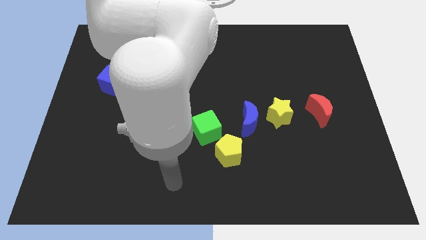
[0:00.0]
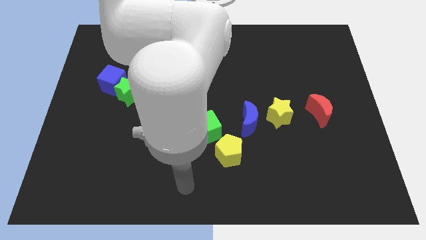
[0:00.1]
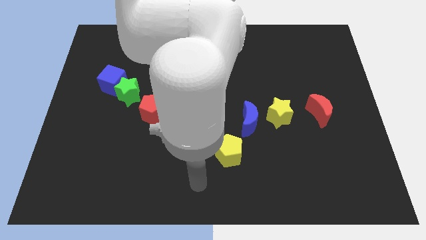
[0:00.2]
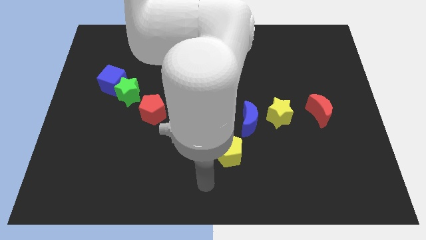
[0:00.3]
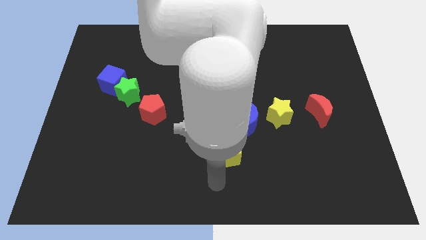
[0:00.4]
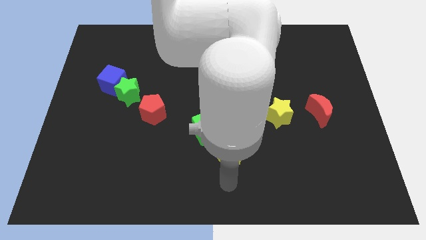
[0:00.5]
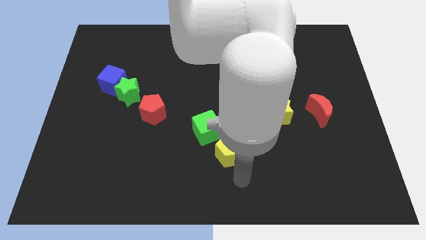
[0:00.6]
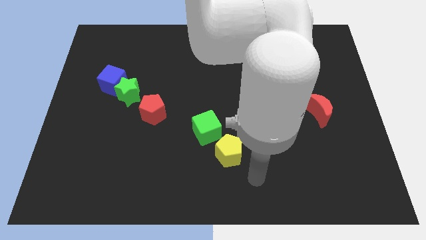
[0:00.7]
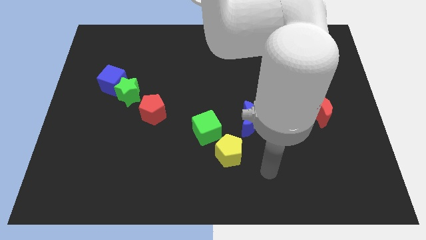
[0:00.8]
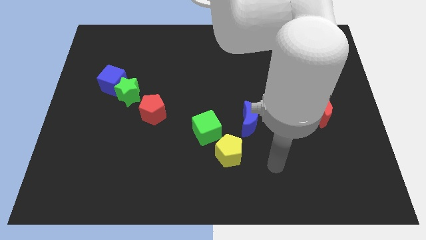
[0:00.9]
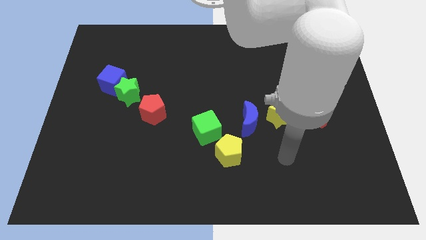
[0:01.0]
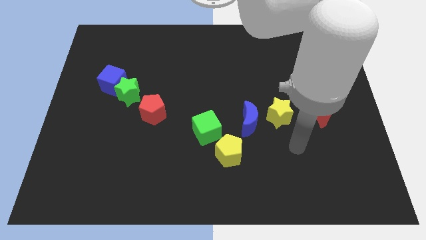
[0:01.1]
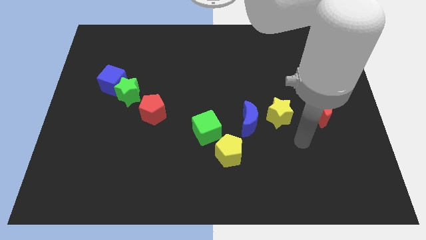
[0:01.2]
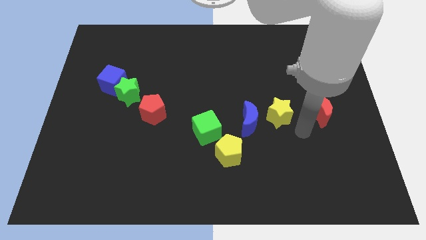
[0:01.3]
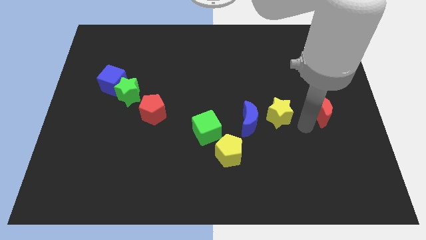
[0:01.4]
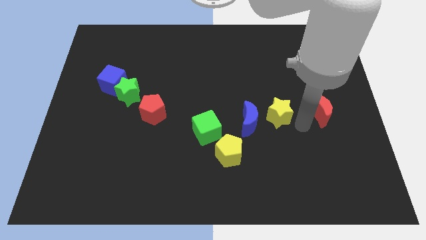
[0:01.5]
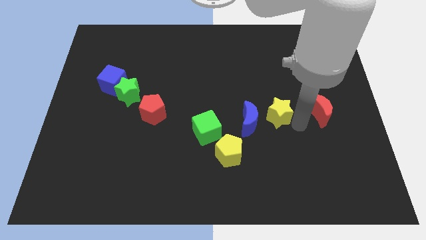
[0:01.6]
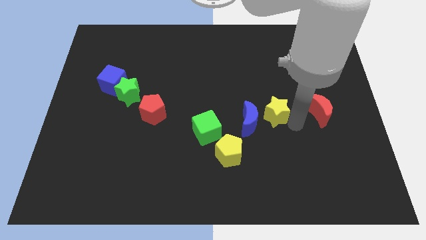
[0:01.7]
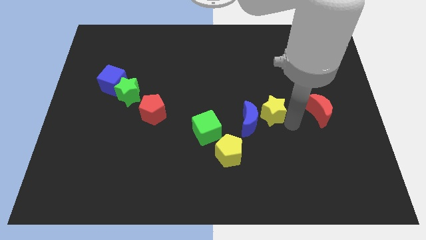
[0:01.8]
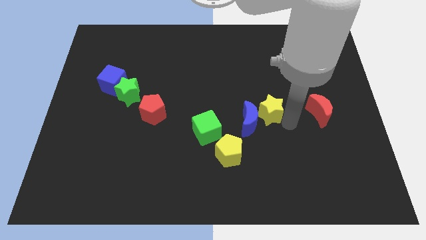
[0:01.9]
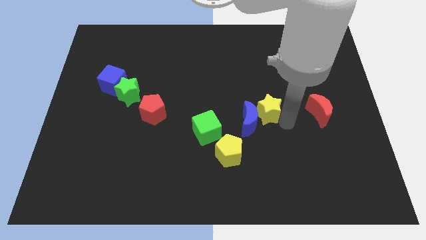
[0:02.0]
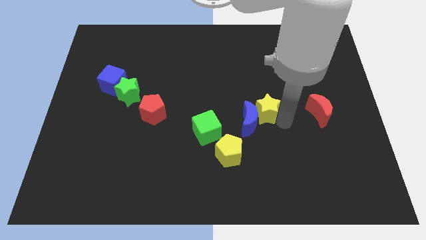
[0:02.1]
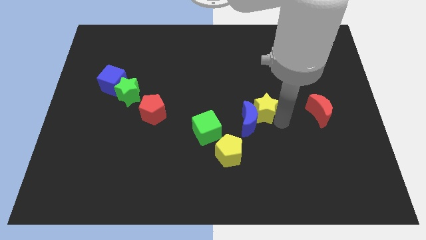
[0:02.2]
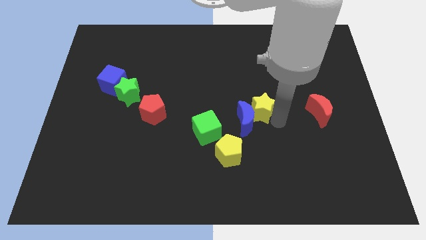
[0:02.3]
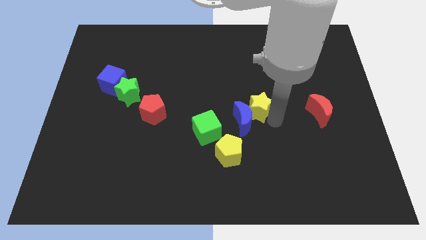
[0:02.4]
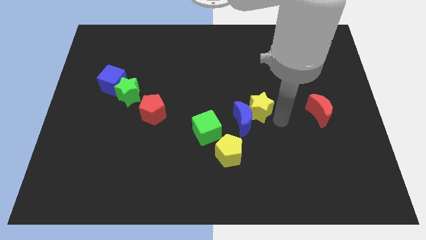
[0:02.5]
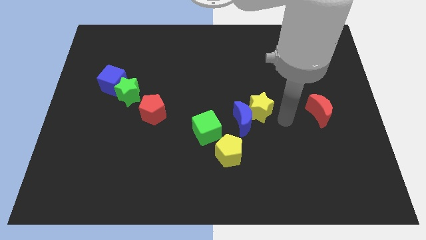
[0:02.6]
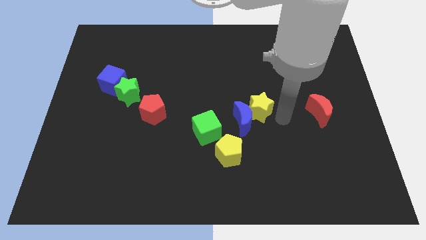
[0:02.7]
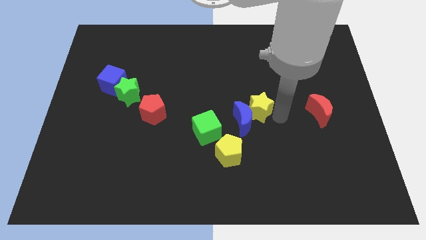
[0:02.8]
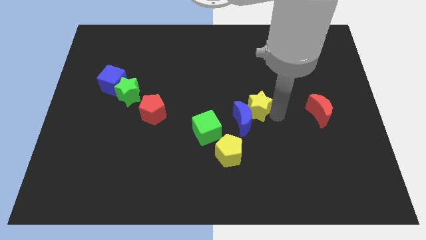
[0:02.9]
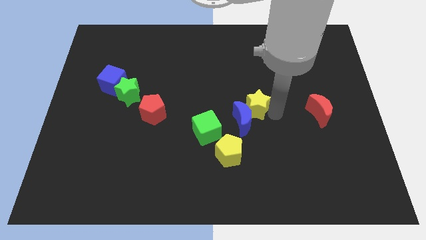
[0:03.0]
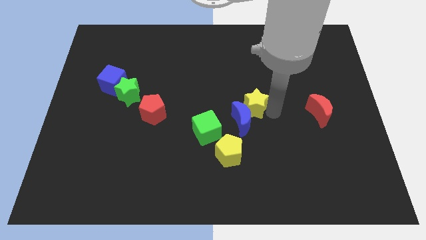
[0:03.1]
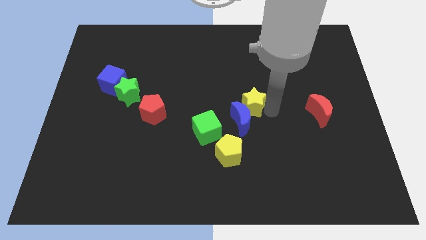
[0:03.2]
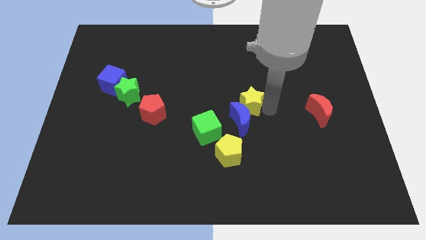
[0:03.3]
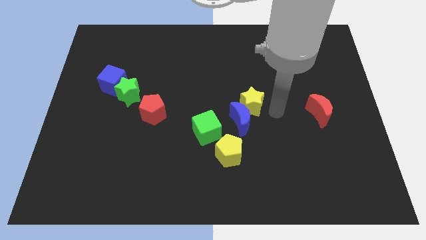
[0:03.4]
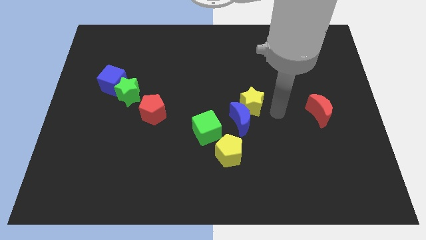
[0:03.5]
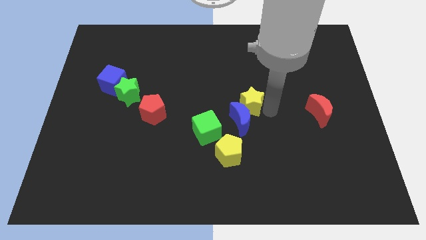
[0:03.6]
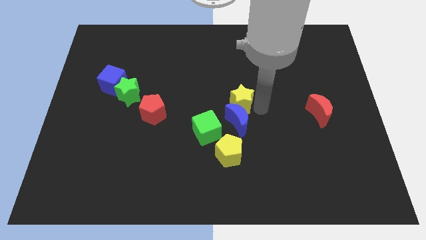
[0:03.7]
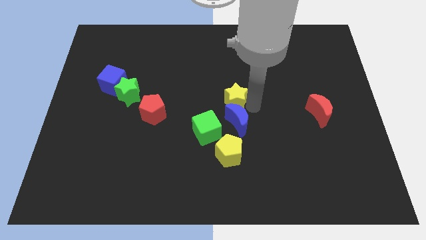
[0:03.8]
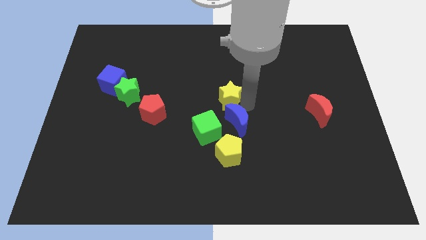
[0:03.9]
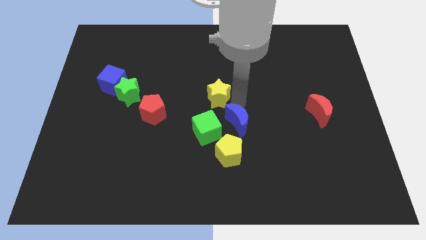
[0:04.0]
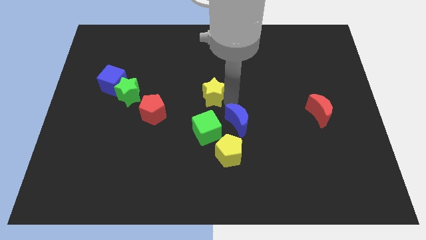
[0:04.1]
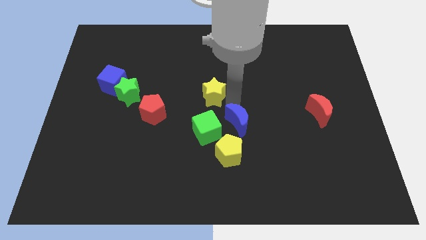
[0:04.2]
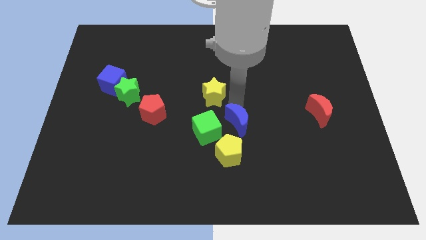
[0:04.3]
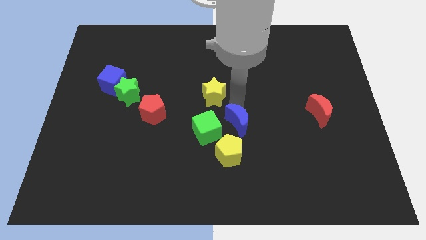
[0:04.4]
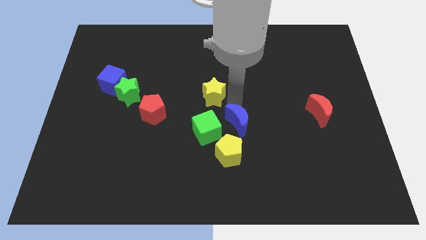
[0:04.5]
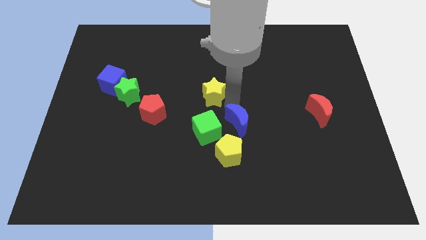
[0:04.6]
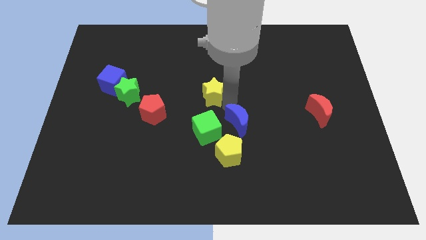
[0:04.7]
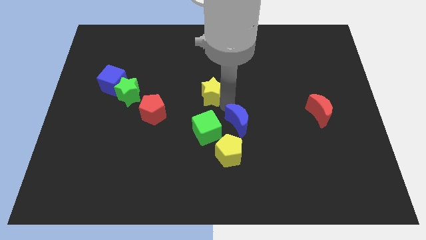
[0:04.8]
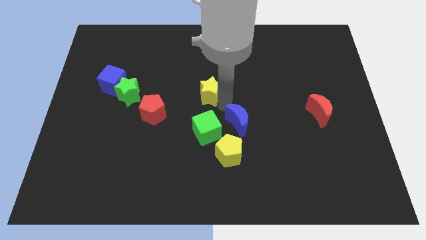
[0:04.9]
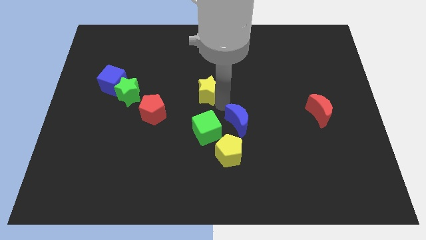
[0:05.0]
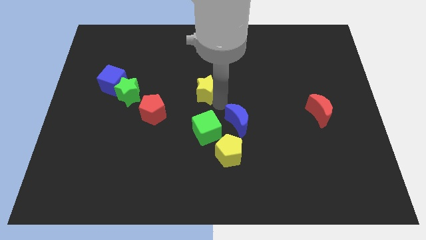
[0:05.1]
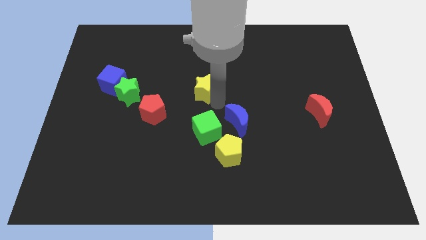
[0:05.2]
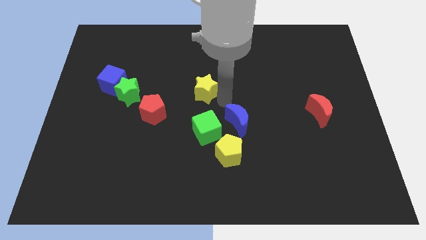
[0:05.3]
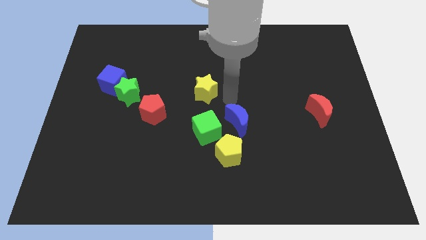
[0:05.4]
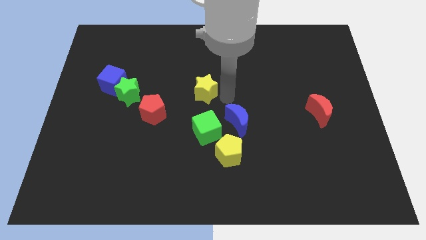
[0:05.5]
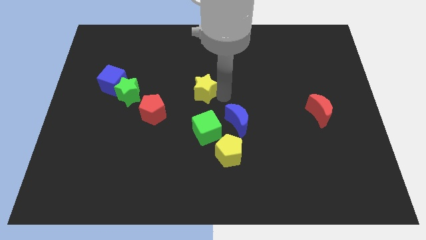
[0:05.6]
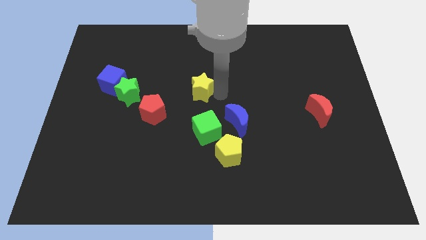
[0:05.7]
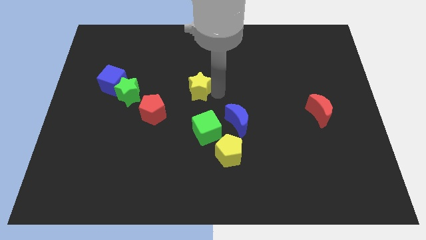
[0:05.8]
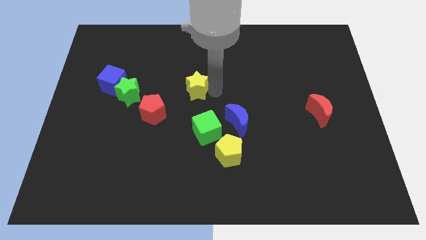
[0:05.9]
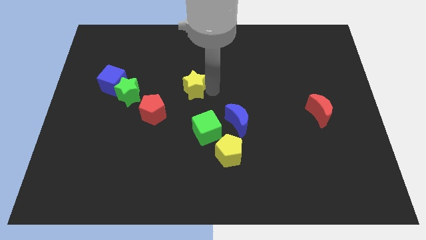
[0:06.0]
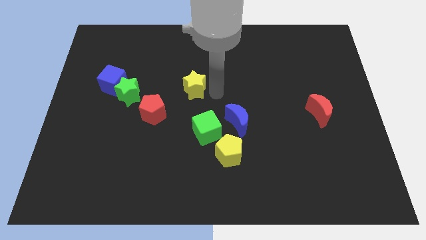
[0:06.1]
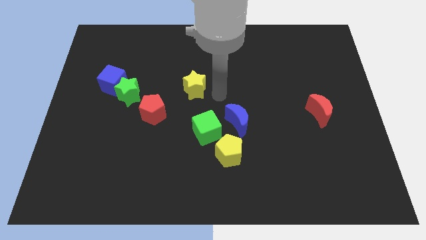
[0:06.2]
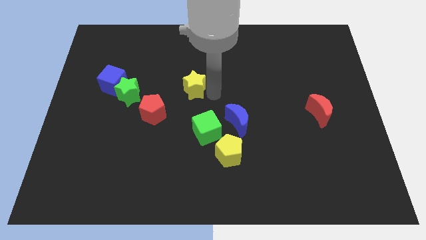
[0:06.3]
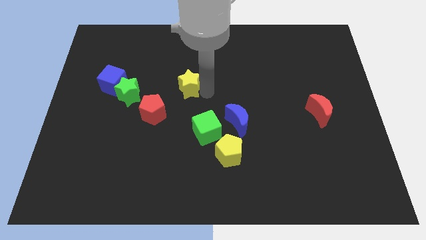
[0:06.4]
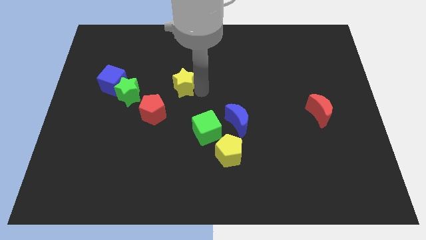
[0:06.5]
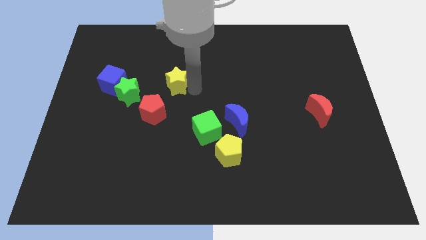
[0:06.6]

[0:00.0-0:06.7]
push the yellow star above the red pentagon
